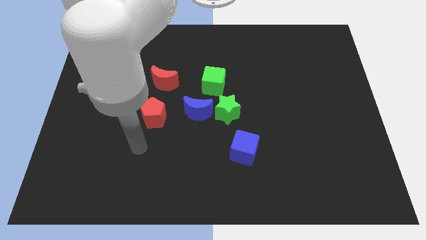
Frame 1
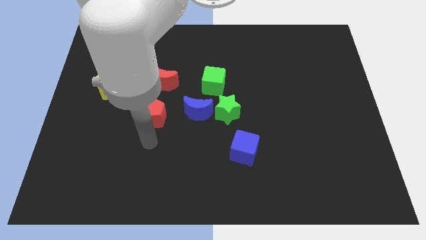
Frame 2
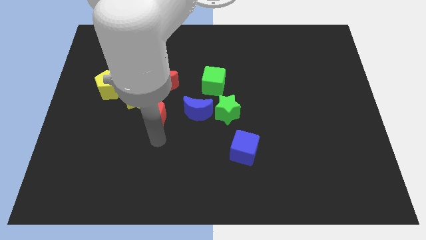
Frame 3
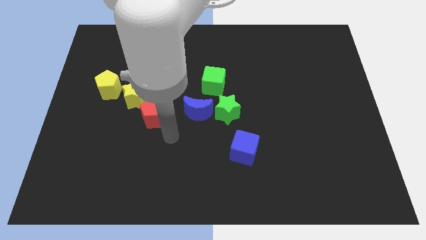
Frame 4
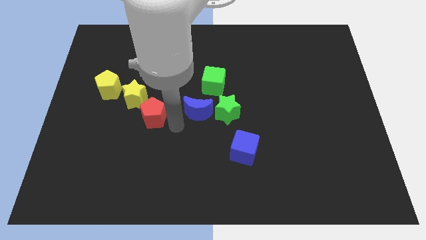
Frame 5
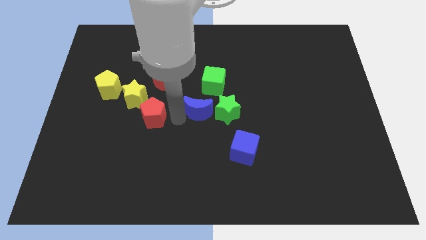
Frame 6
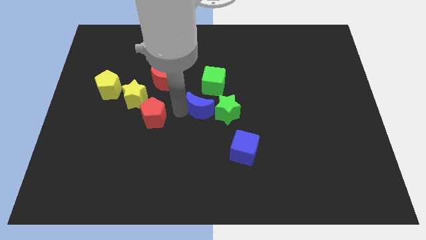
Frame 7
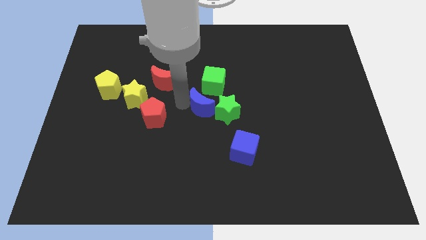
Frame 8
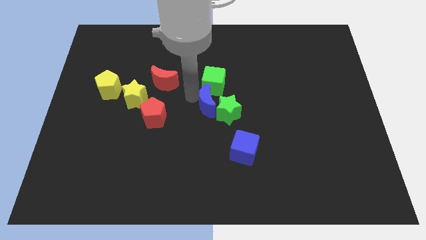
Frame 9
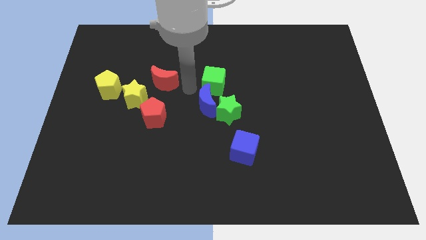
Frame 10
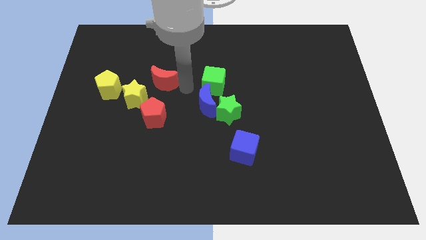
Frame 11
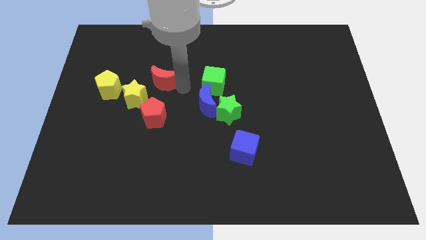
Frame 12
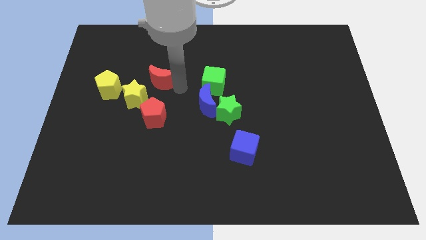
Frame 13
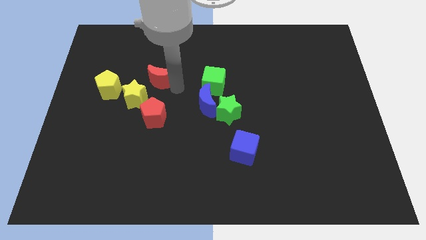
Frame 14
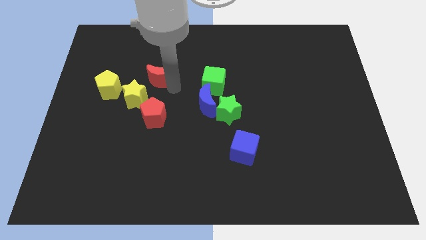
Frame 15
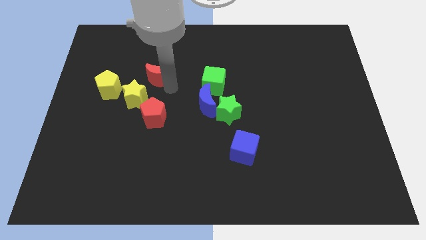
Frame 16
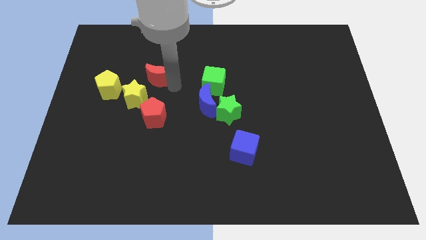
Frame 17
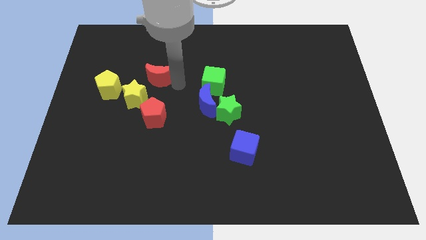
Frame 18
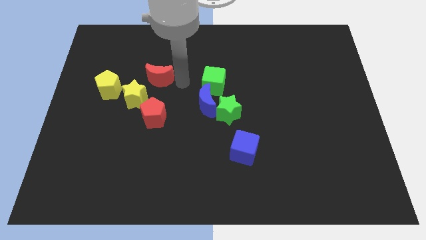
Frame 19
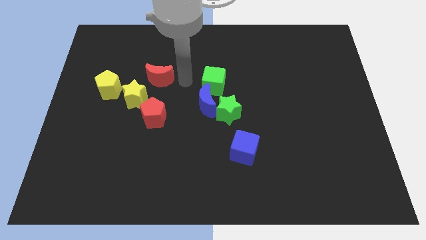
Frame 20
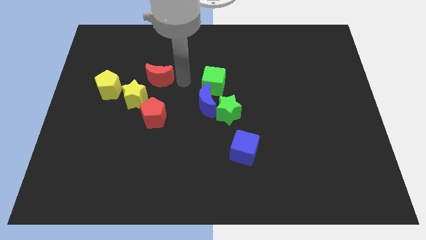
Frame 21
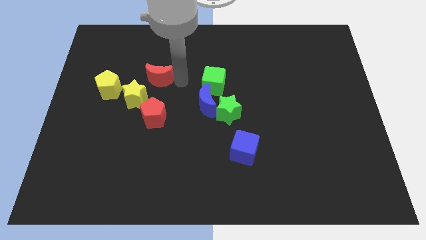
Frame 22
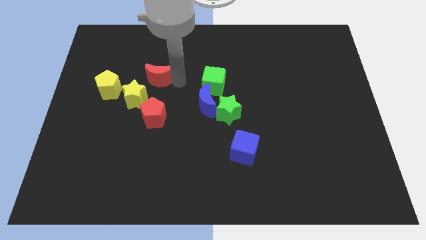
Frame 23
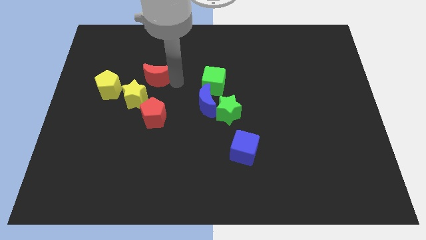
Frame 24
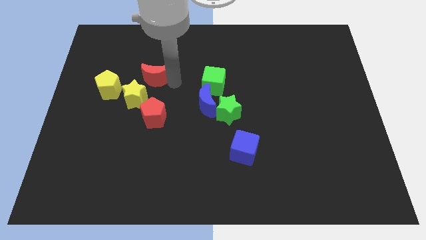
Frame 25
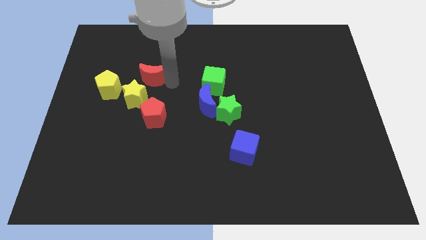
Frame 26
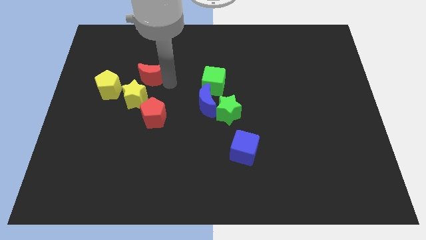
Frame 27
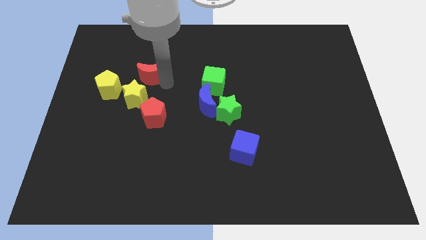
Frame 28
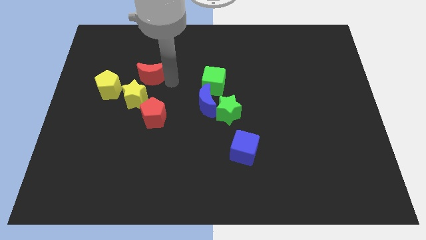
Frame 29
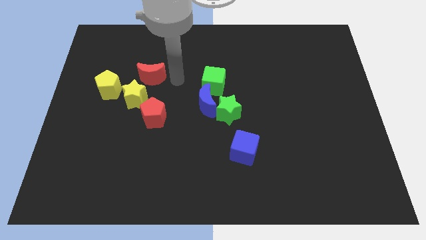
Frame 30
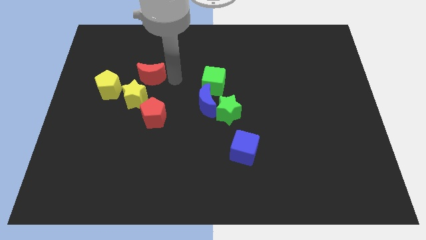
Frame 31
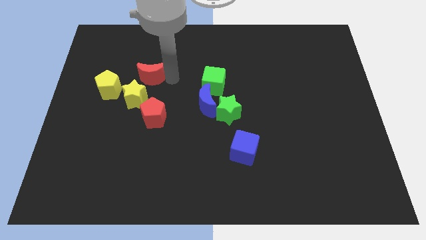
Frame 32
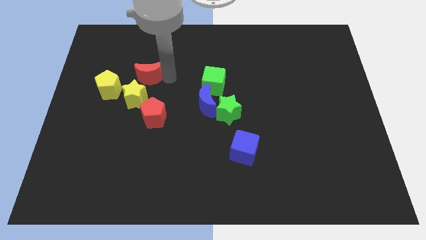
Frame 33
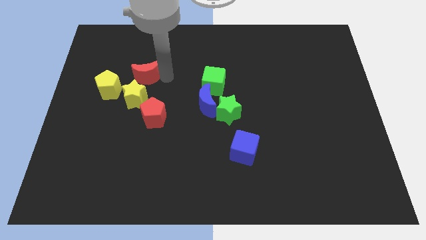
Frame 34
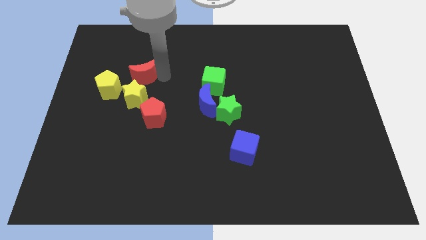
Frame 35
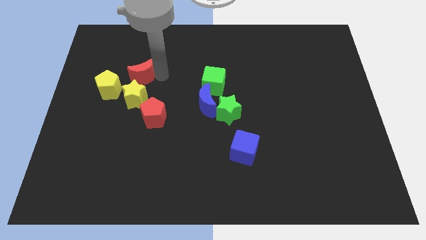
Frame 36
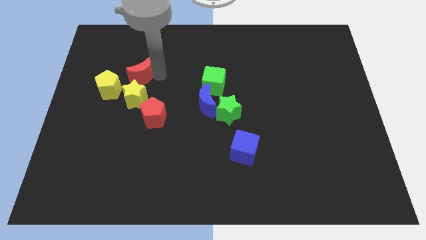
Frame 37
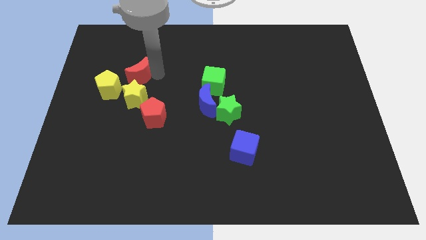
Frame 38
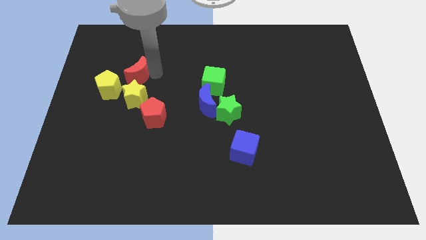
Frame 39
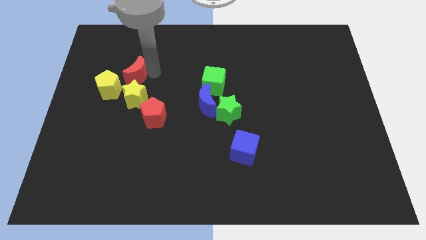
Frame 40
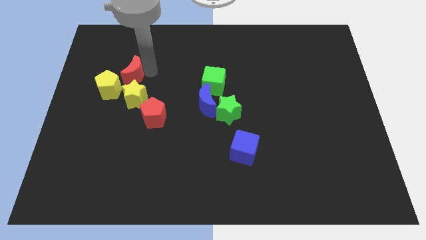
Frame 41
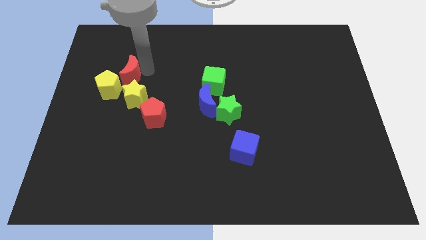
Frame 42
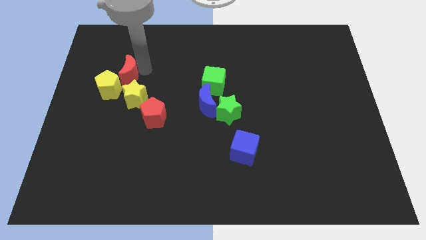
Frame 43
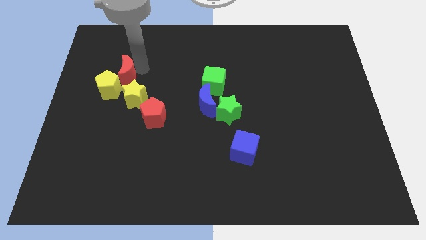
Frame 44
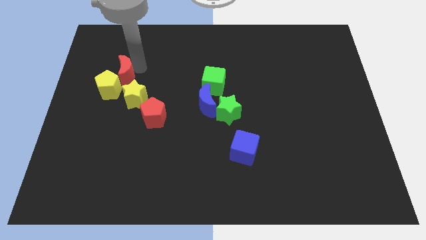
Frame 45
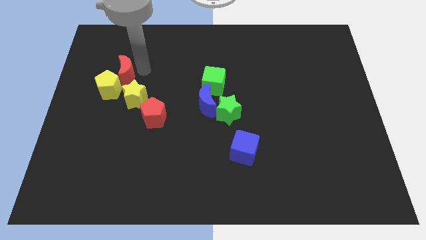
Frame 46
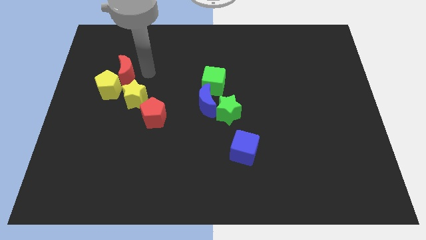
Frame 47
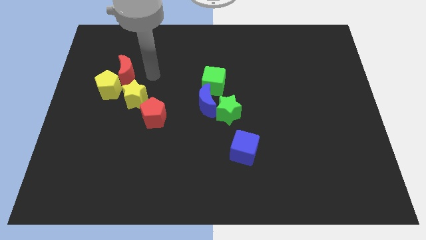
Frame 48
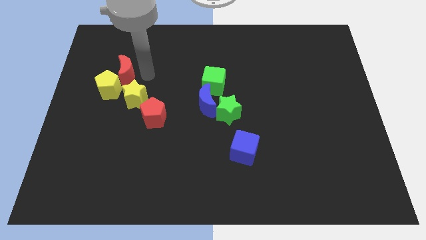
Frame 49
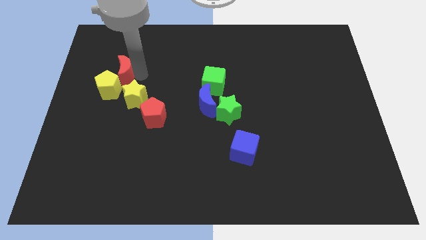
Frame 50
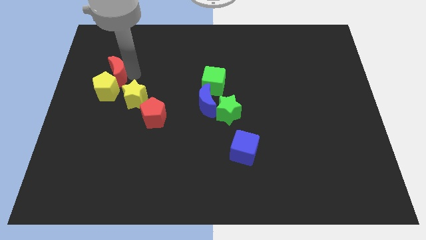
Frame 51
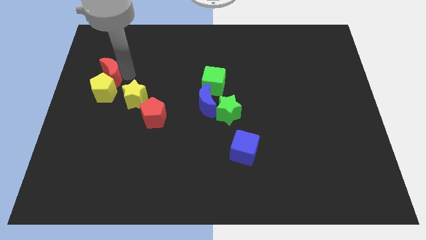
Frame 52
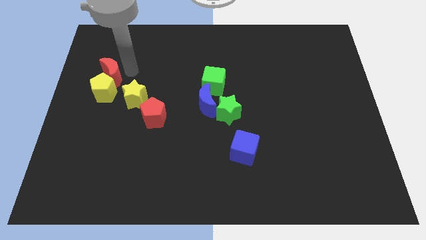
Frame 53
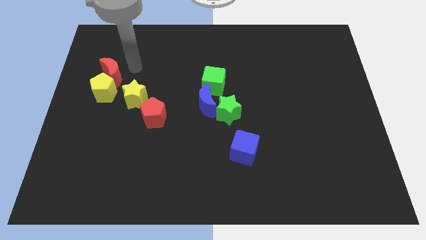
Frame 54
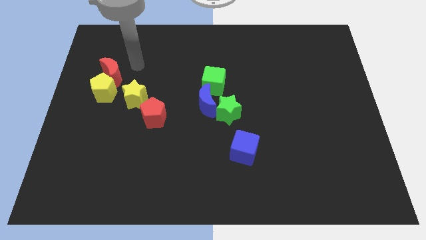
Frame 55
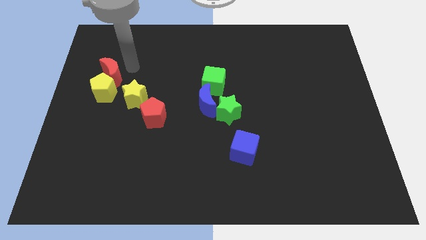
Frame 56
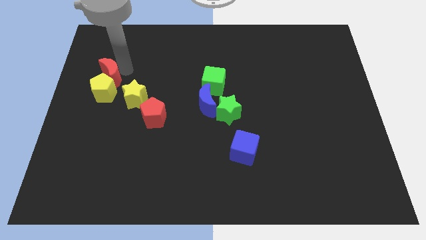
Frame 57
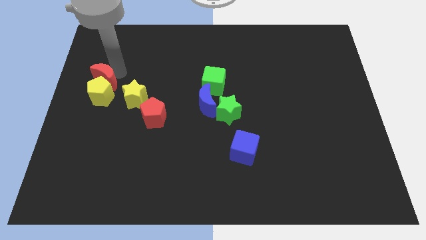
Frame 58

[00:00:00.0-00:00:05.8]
slide the red moon to the left side of the board
